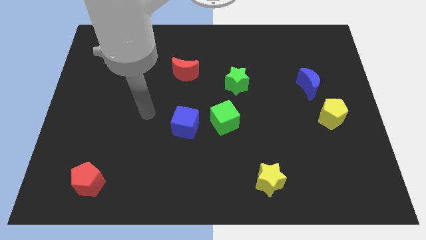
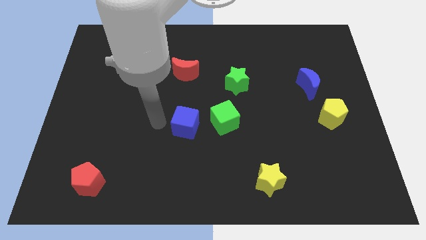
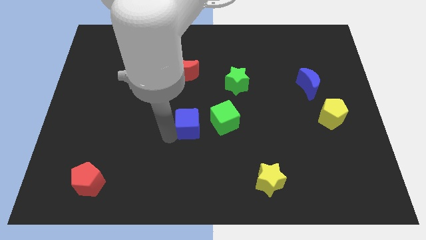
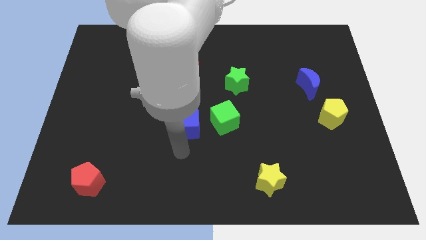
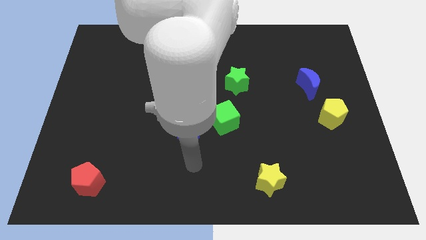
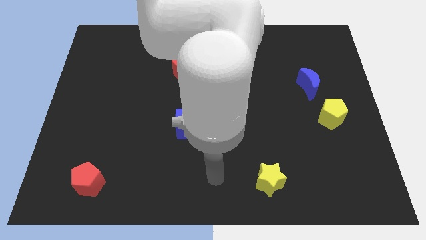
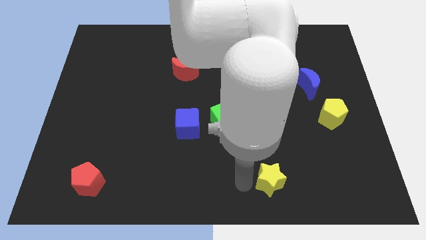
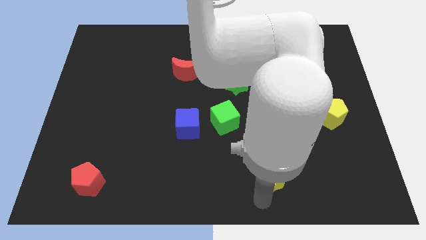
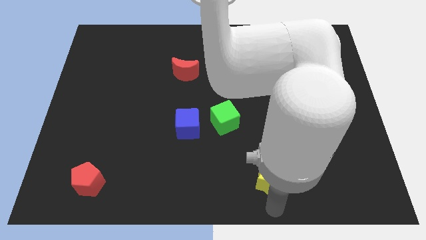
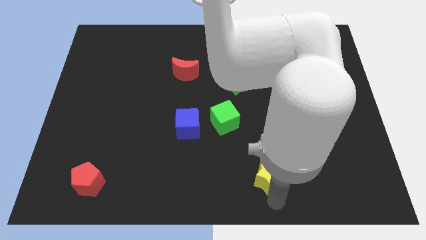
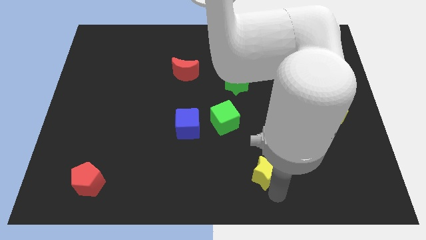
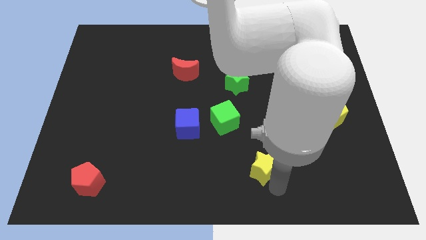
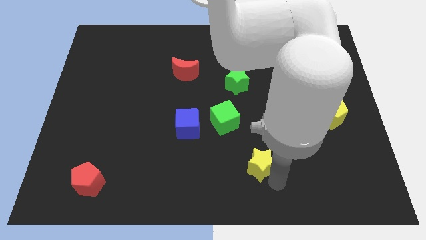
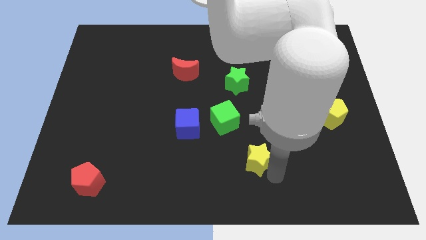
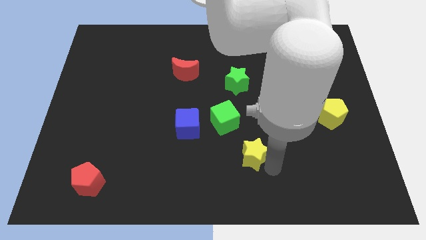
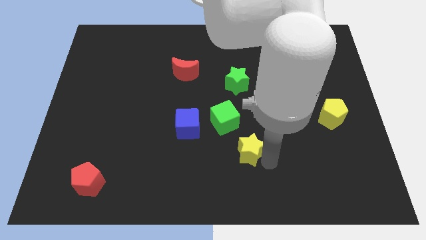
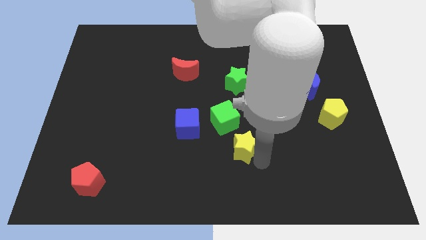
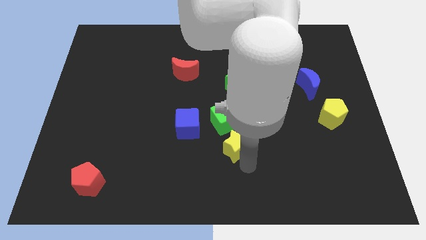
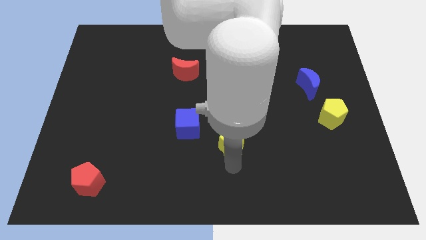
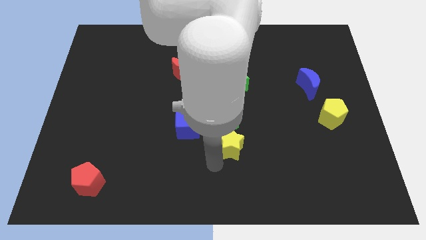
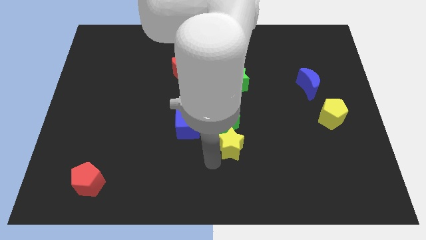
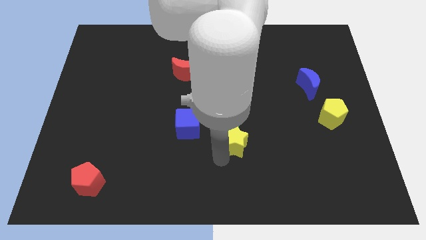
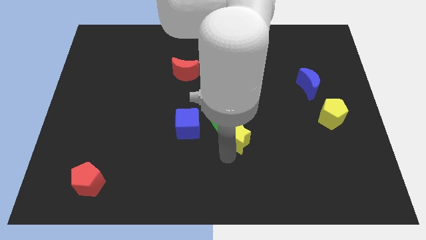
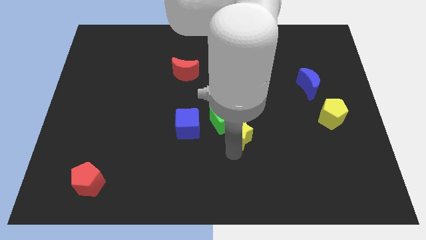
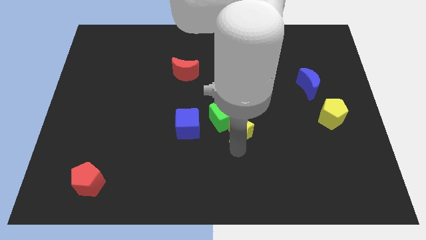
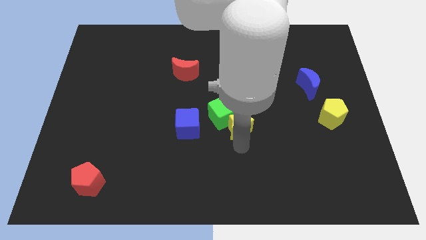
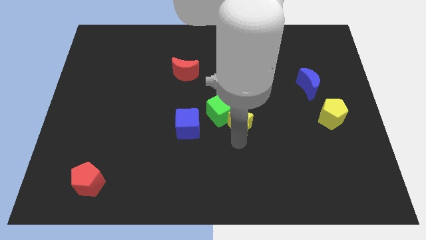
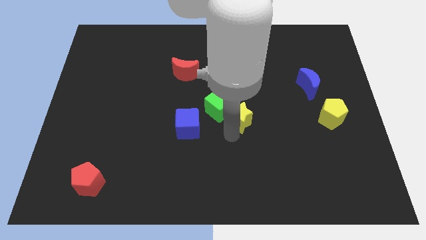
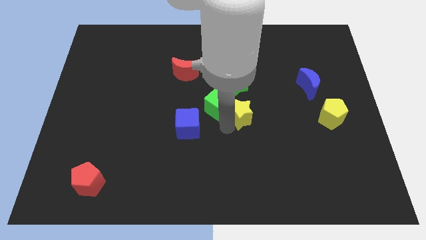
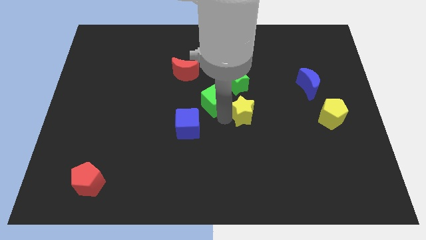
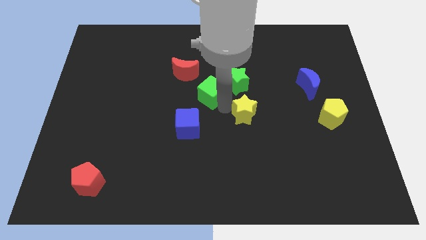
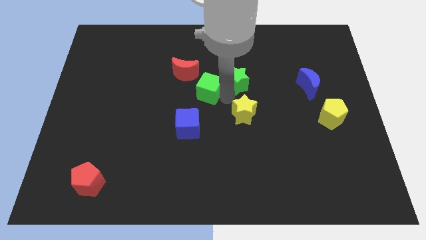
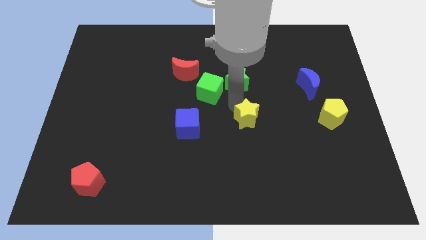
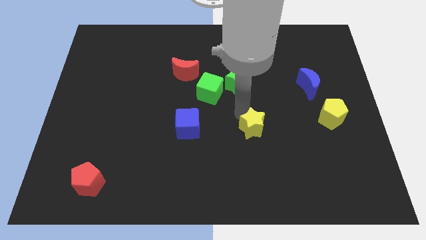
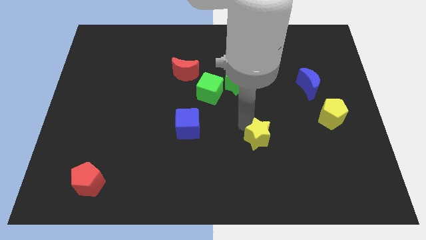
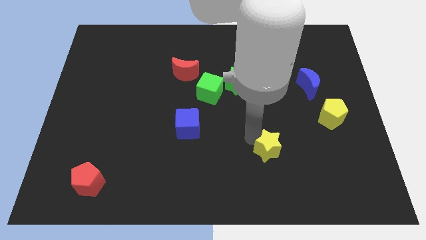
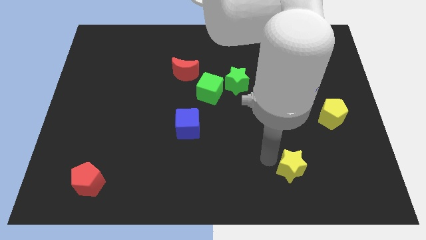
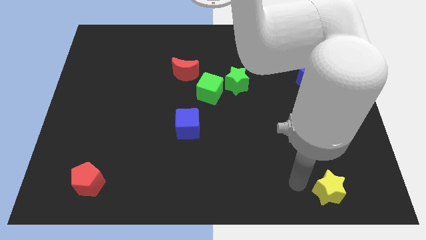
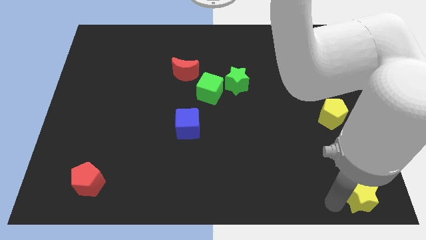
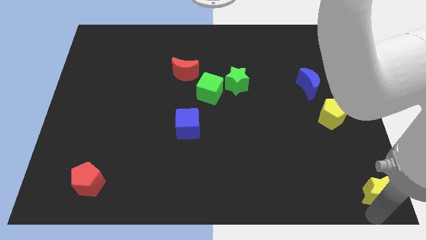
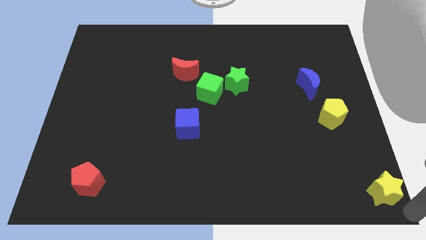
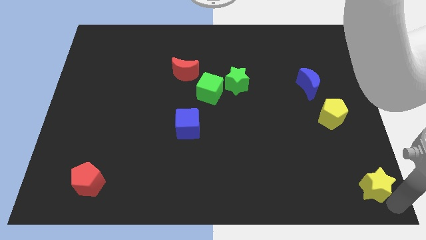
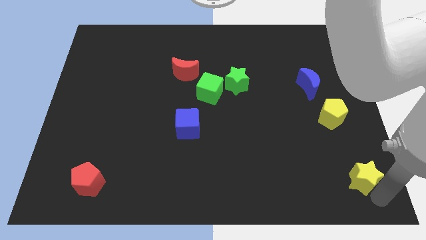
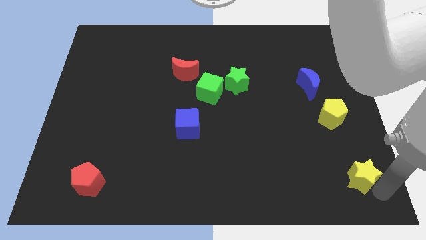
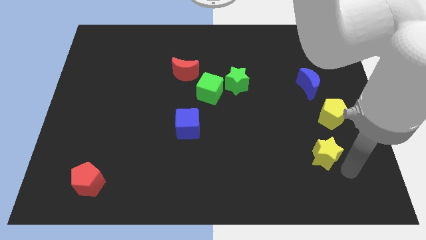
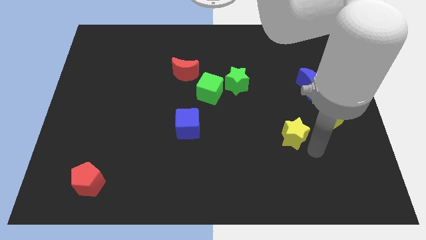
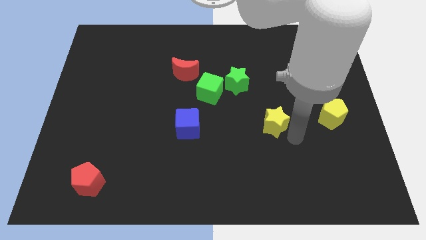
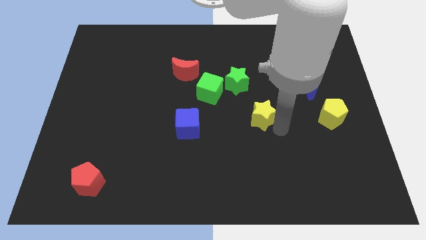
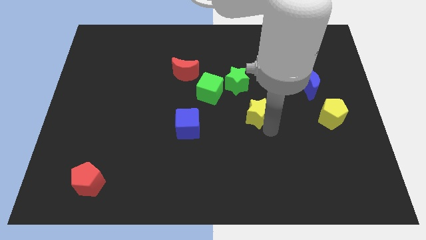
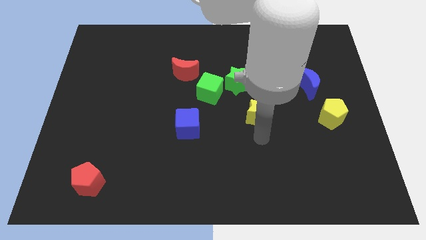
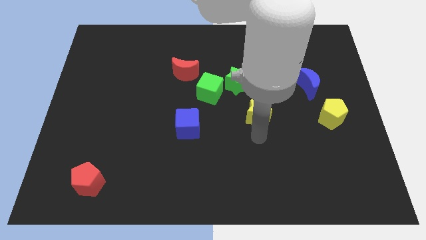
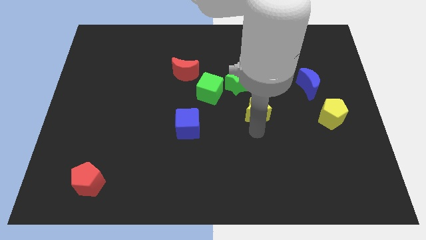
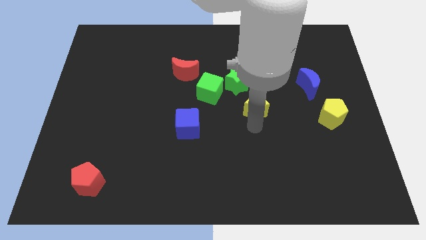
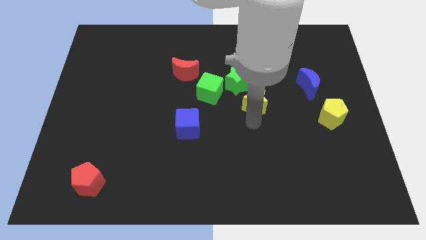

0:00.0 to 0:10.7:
push the yellow star up

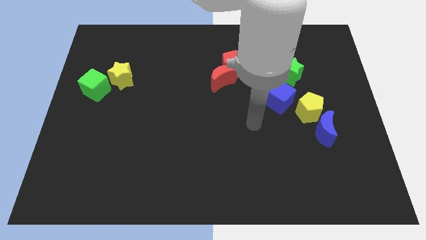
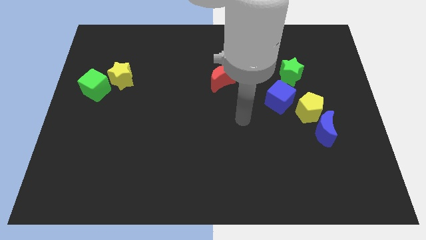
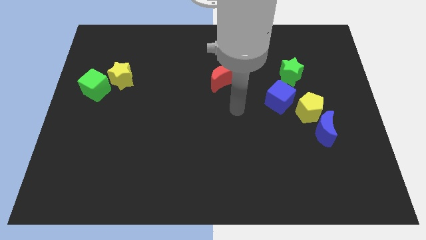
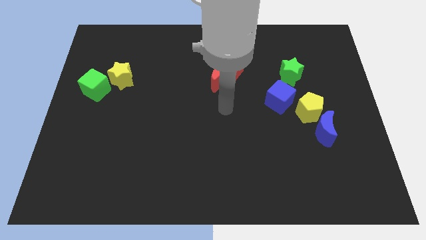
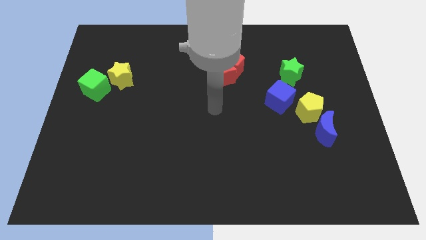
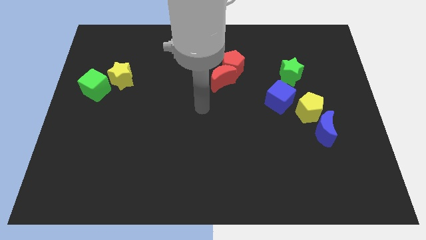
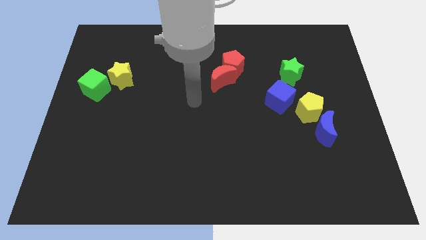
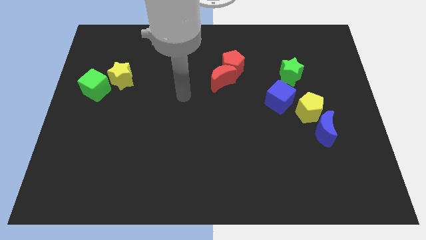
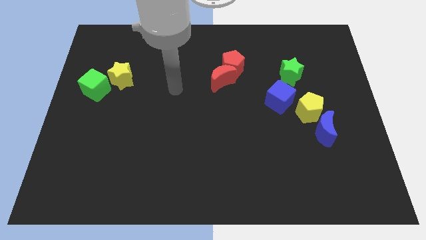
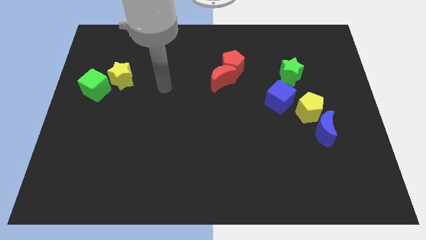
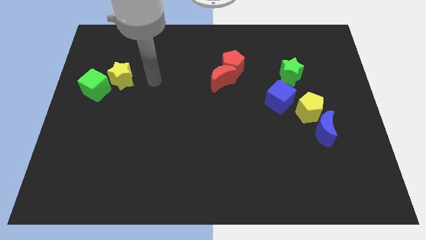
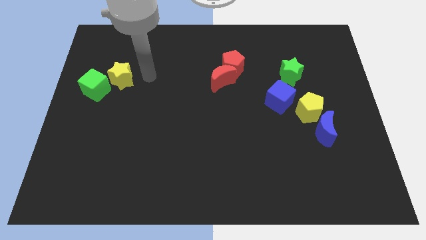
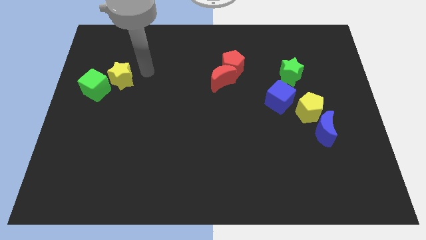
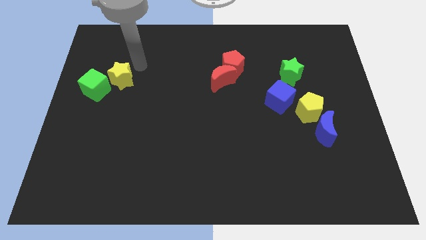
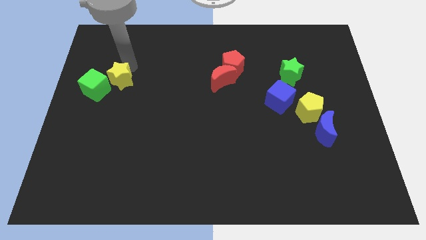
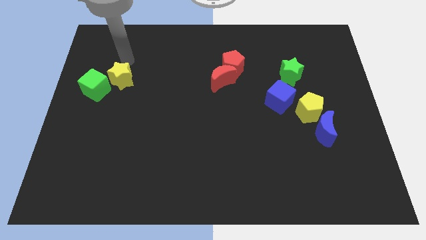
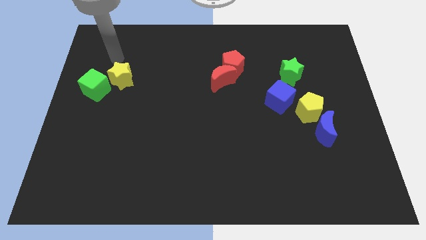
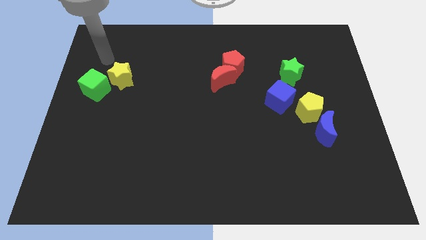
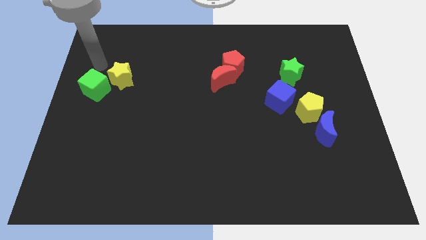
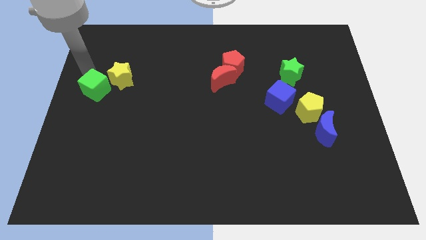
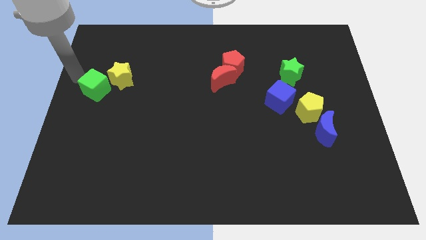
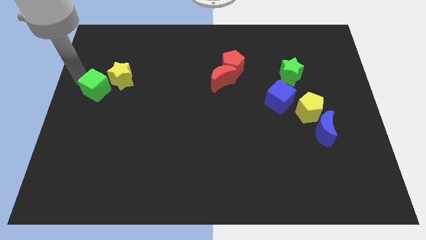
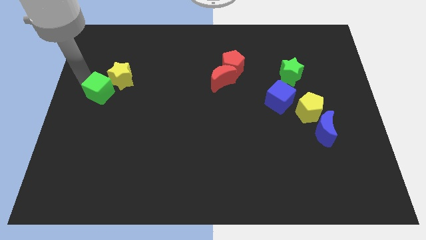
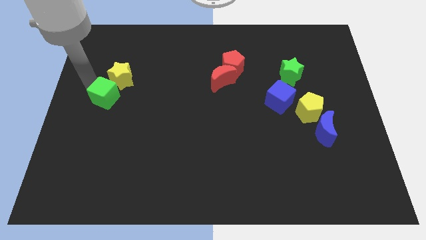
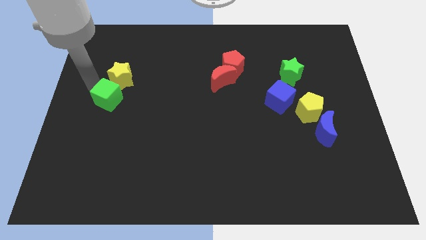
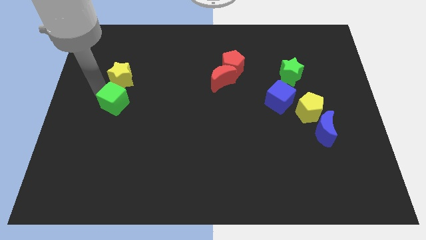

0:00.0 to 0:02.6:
push the green cube a little bit downwards and right

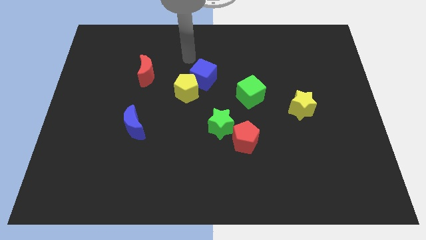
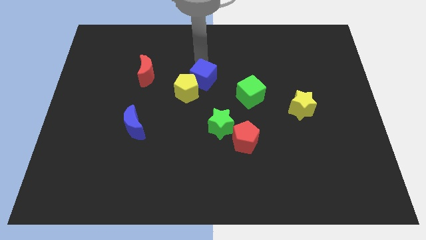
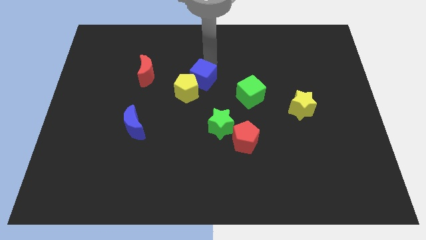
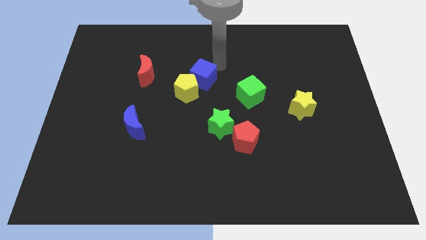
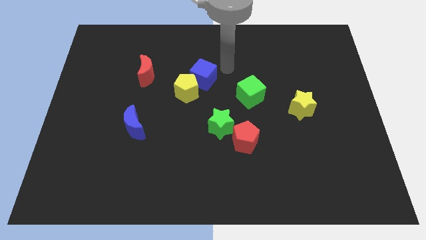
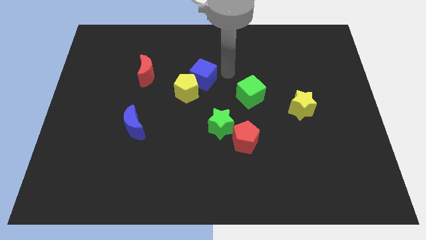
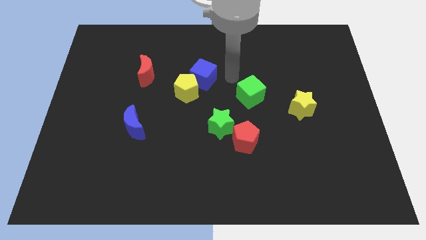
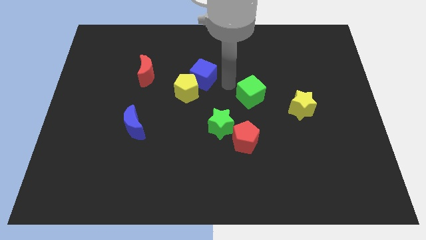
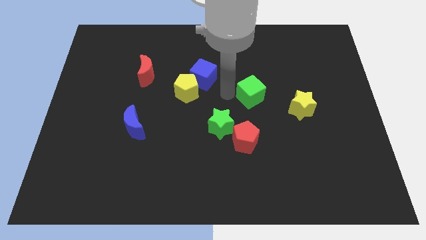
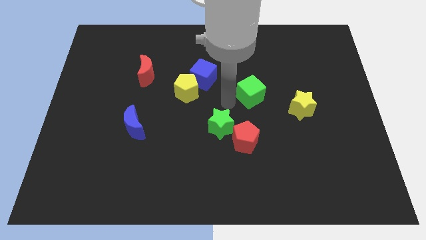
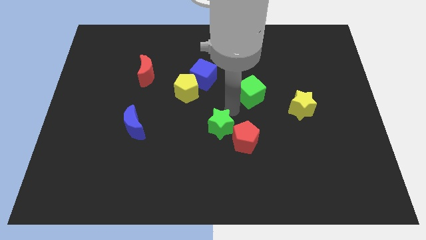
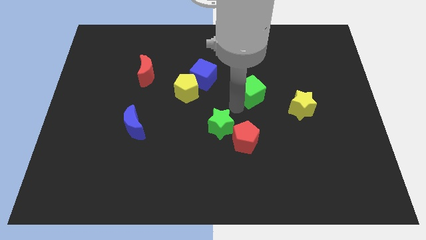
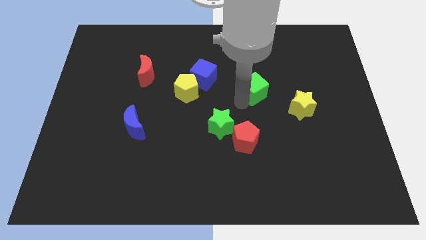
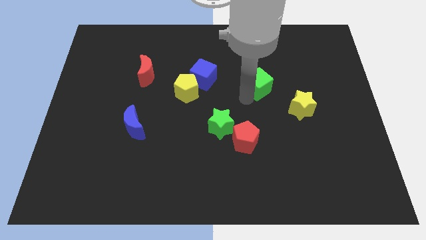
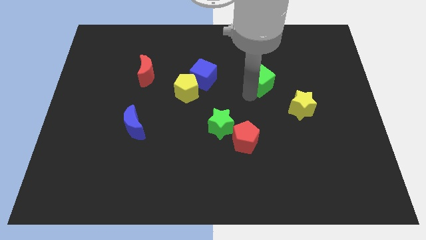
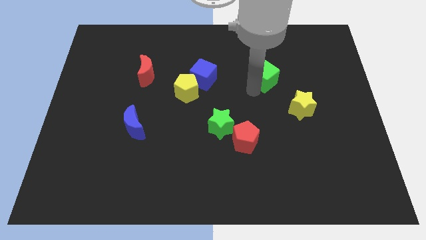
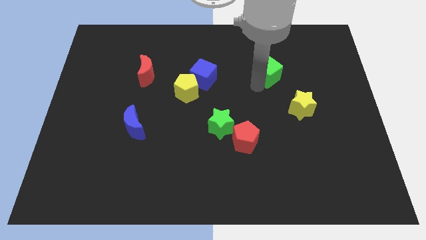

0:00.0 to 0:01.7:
slightly slide the green cube diagonally up and right
